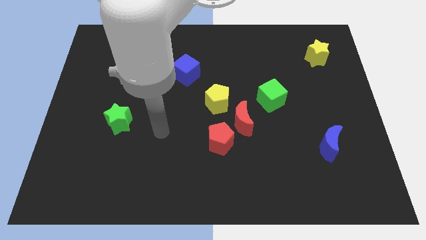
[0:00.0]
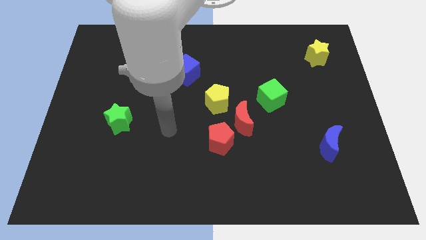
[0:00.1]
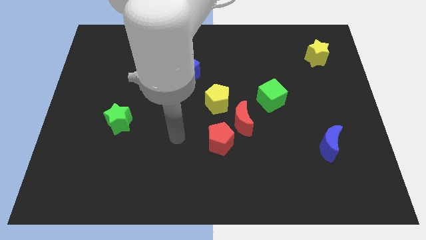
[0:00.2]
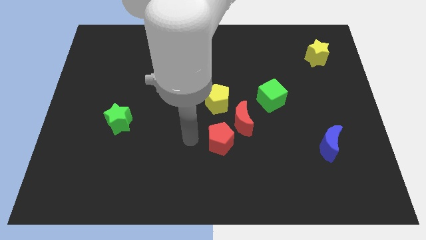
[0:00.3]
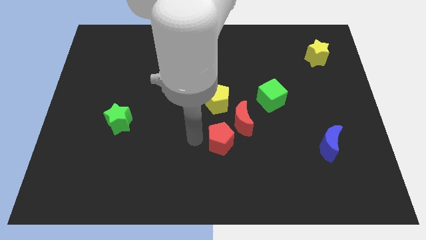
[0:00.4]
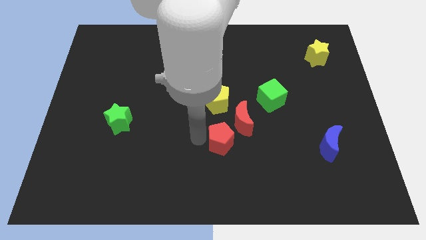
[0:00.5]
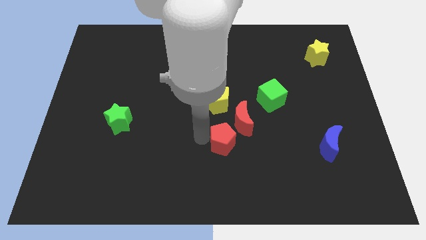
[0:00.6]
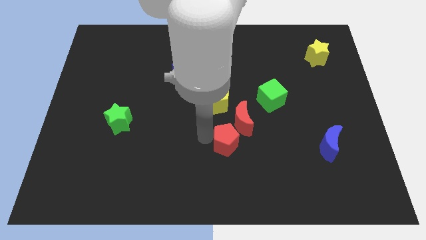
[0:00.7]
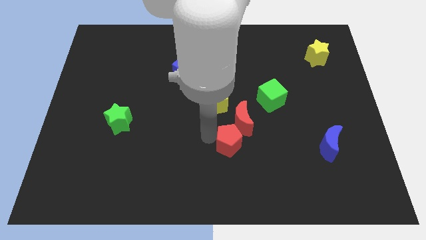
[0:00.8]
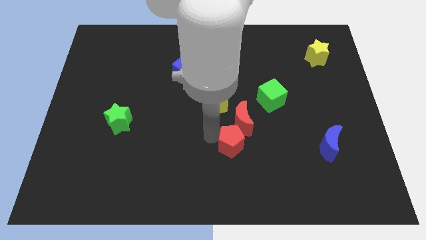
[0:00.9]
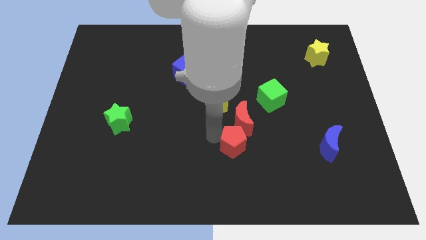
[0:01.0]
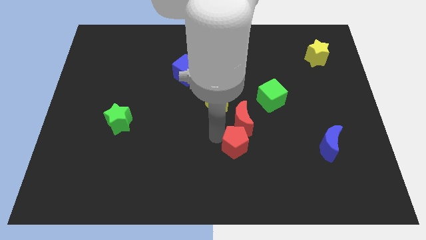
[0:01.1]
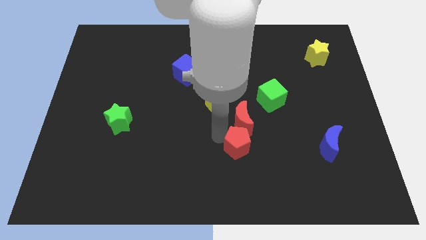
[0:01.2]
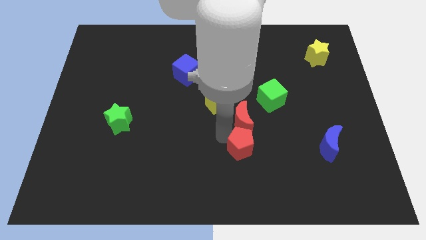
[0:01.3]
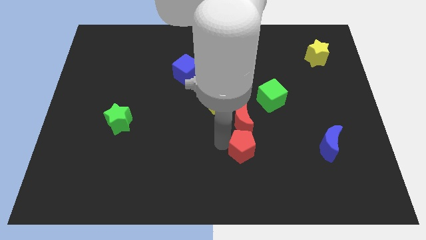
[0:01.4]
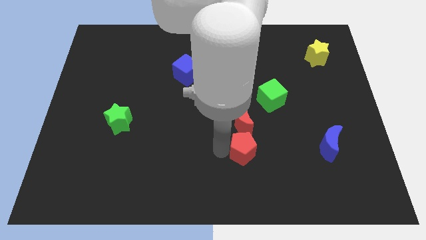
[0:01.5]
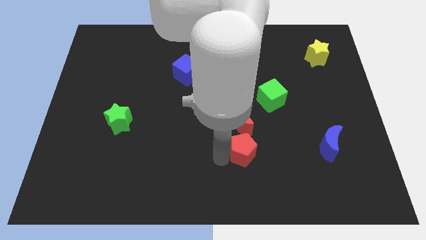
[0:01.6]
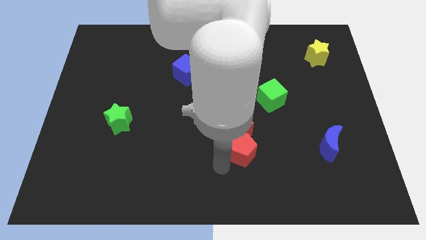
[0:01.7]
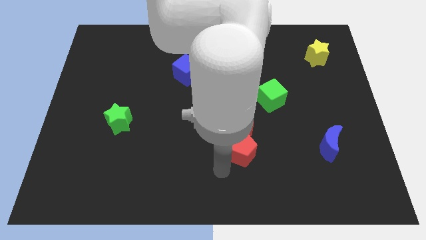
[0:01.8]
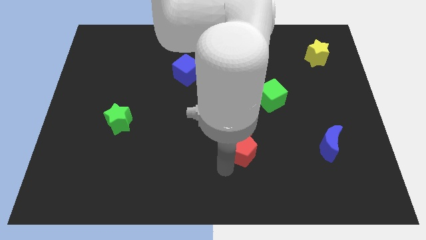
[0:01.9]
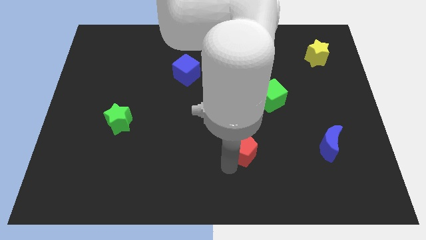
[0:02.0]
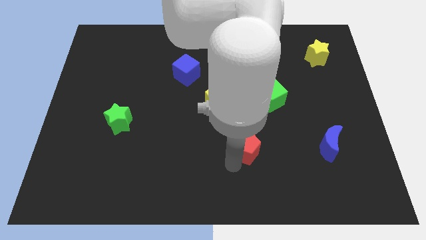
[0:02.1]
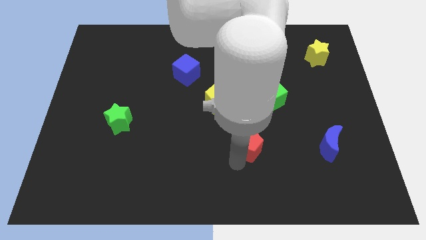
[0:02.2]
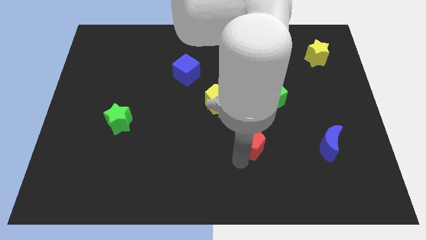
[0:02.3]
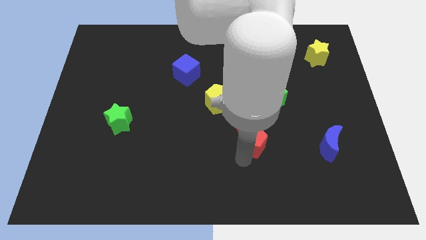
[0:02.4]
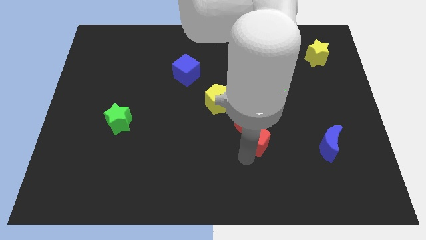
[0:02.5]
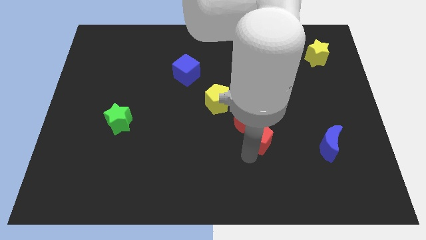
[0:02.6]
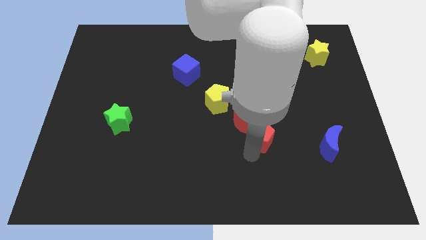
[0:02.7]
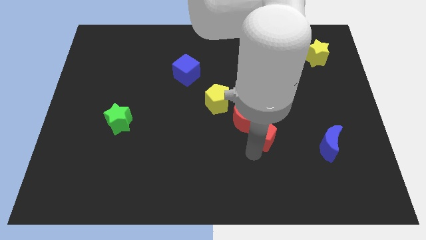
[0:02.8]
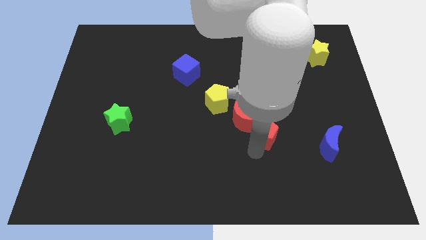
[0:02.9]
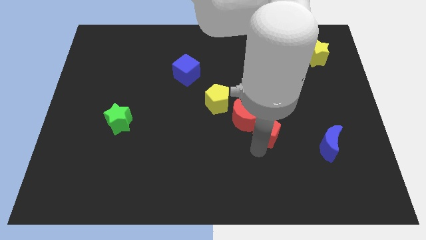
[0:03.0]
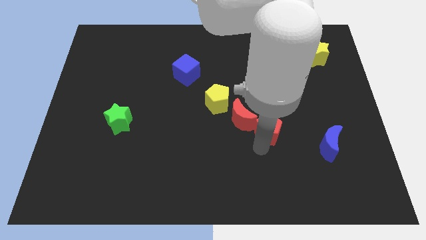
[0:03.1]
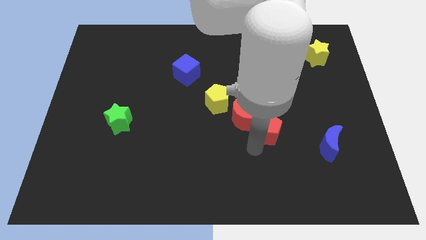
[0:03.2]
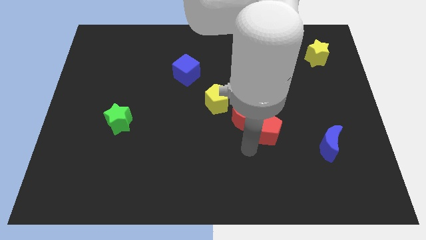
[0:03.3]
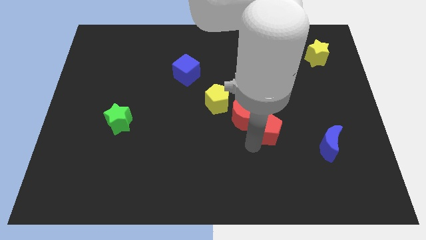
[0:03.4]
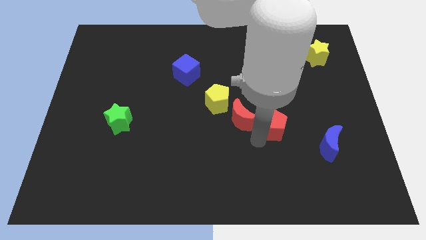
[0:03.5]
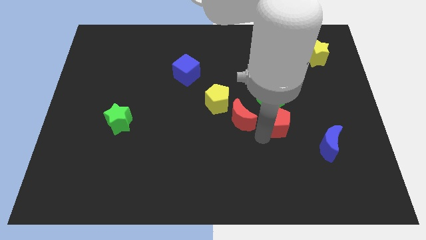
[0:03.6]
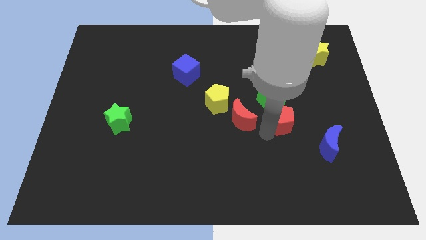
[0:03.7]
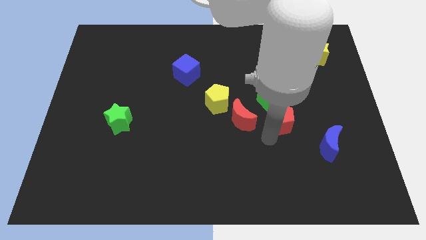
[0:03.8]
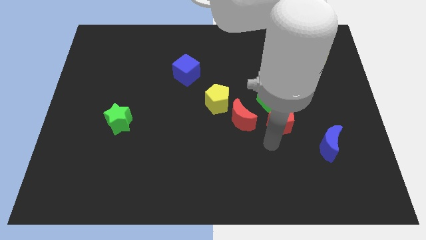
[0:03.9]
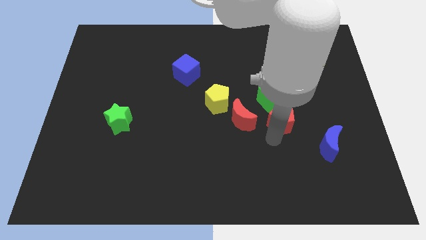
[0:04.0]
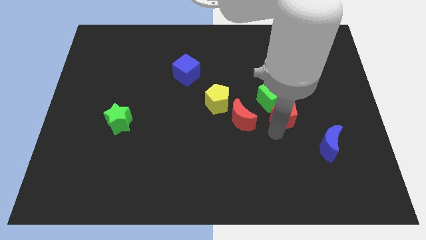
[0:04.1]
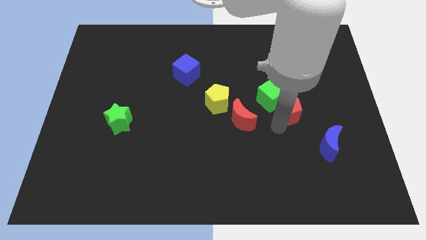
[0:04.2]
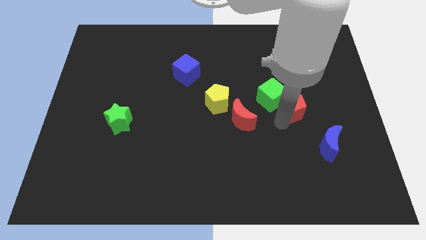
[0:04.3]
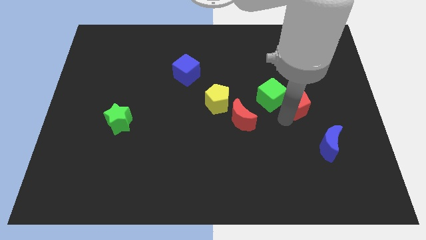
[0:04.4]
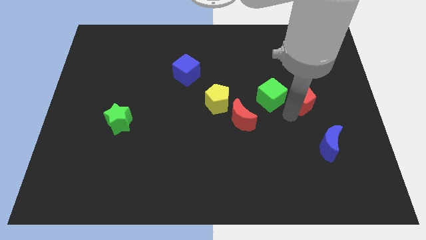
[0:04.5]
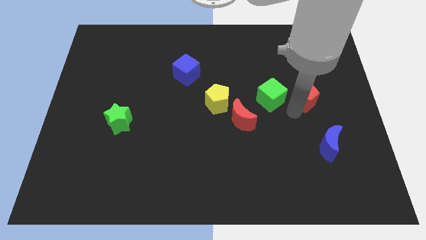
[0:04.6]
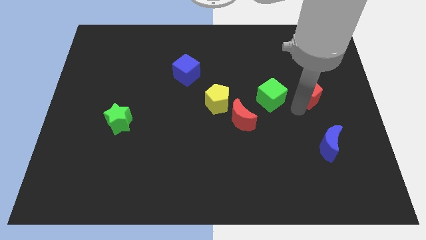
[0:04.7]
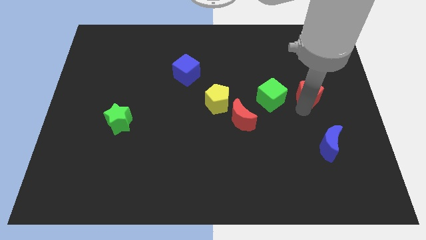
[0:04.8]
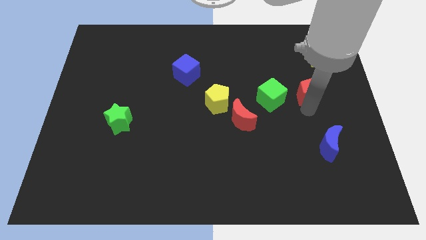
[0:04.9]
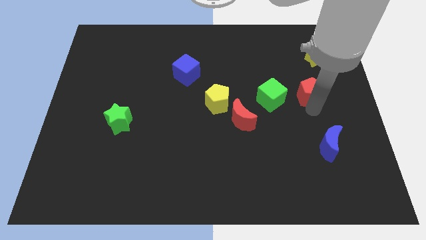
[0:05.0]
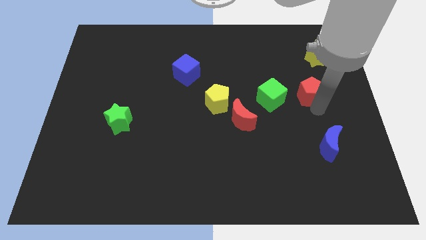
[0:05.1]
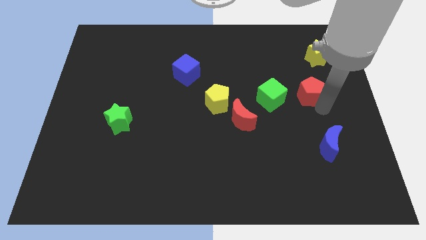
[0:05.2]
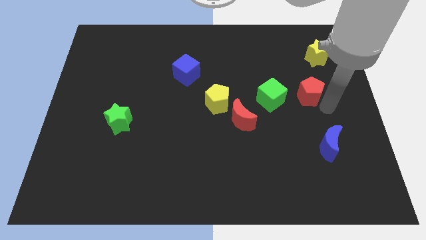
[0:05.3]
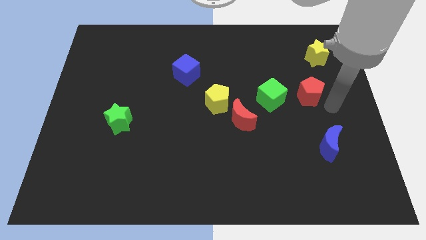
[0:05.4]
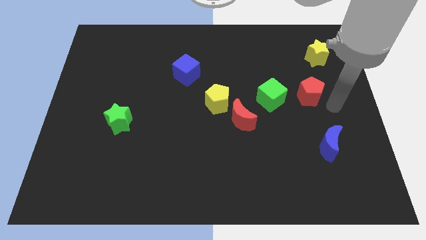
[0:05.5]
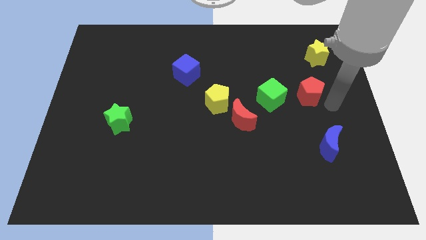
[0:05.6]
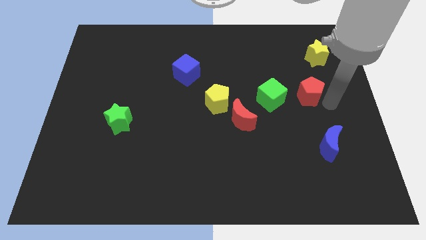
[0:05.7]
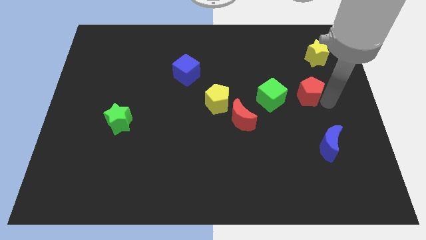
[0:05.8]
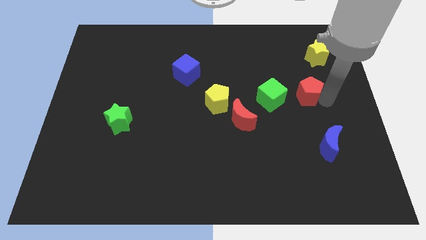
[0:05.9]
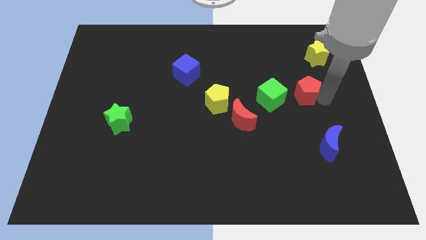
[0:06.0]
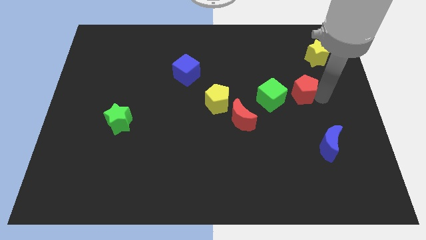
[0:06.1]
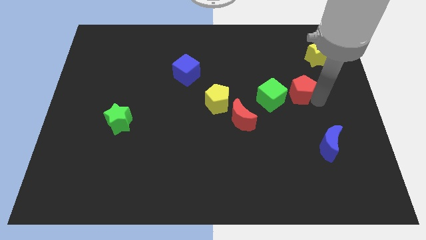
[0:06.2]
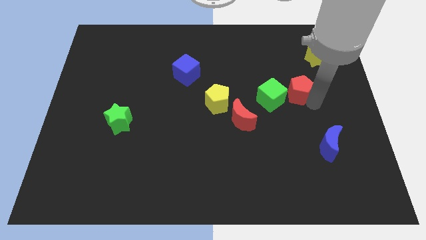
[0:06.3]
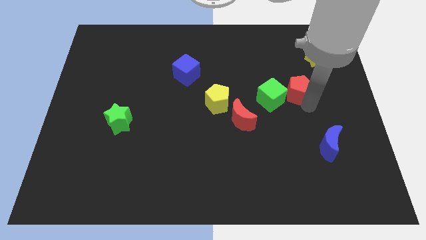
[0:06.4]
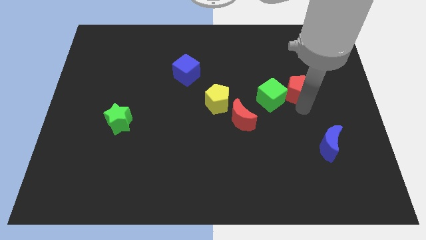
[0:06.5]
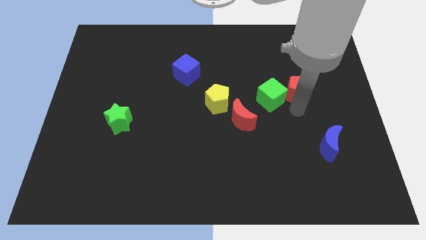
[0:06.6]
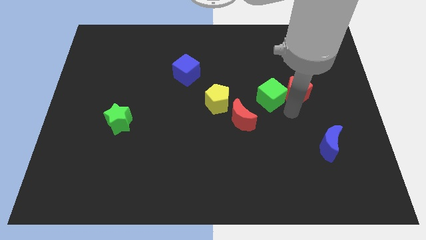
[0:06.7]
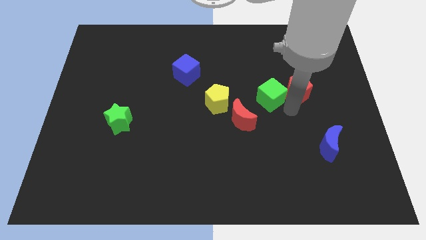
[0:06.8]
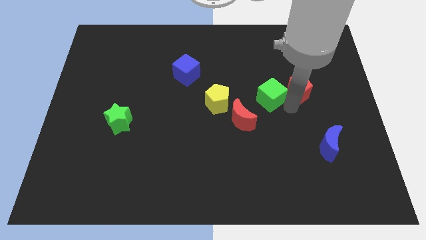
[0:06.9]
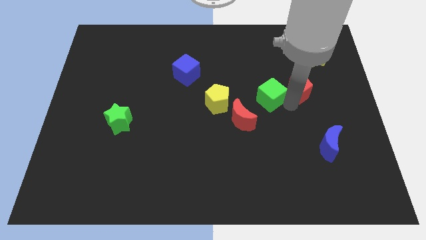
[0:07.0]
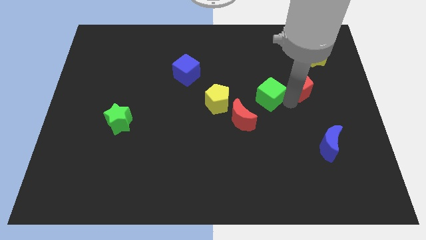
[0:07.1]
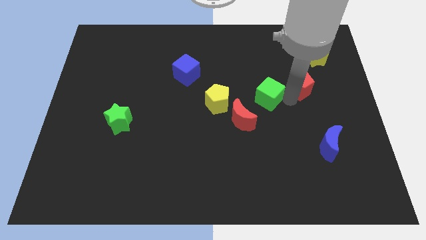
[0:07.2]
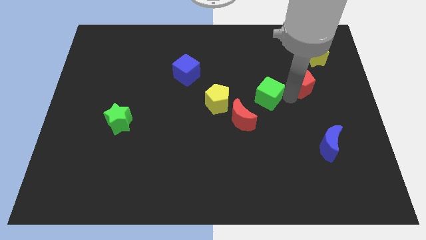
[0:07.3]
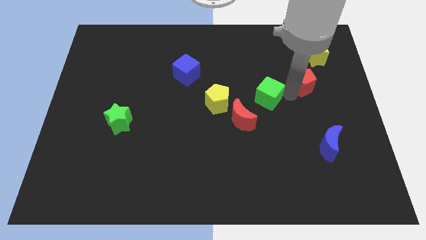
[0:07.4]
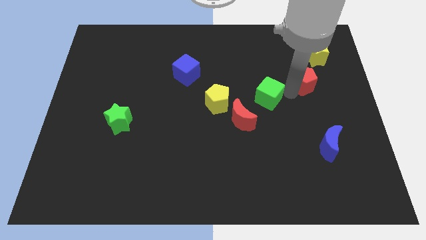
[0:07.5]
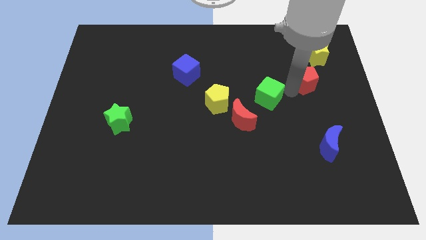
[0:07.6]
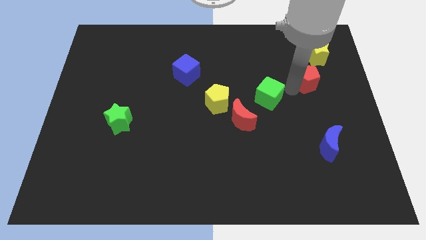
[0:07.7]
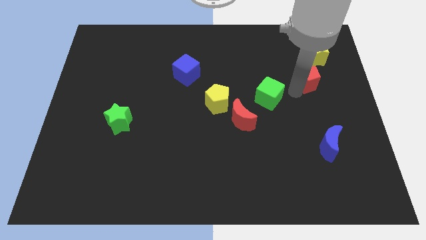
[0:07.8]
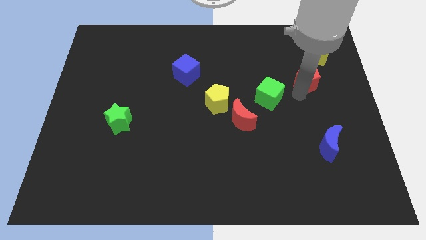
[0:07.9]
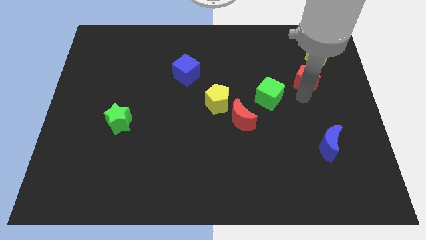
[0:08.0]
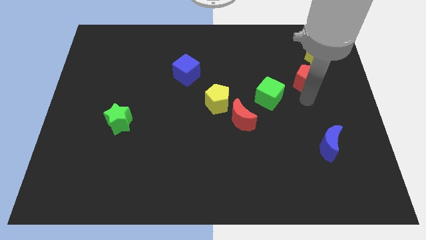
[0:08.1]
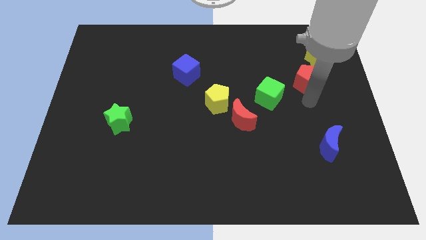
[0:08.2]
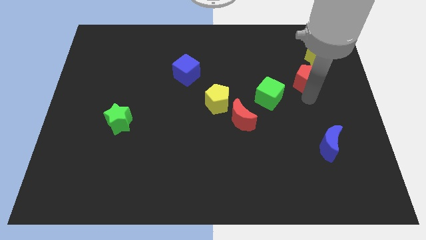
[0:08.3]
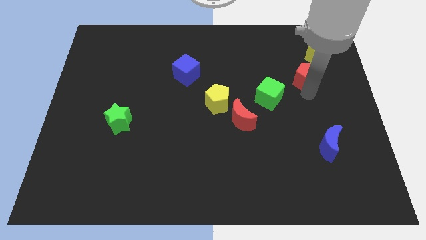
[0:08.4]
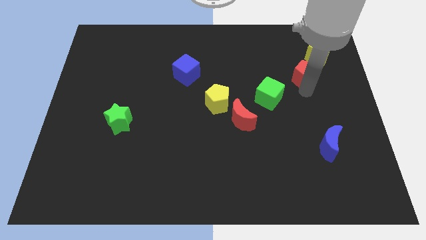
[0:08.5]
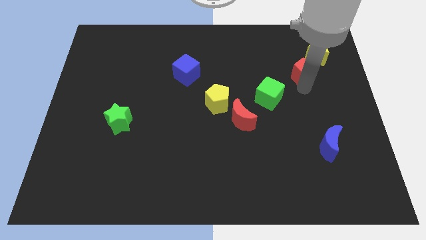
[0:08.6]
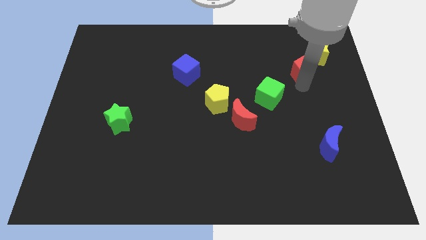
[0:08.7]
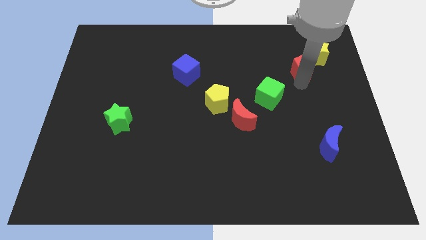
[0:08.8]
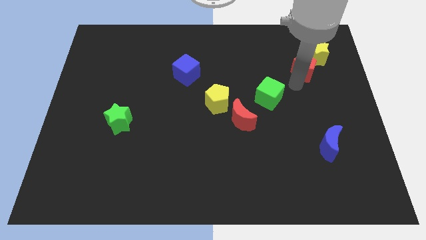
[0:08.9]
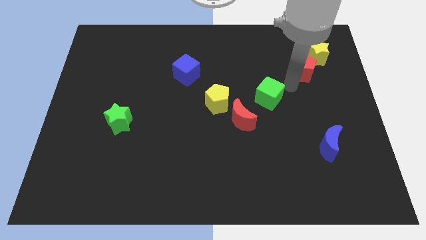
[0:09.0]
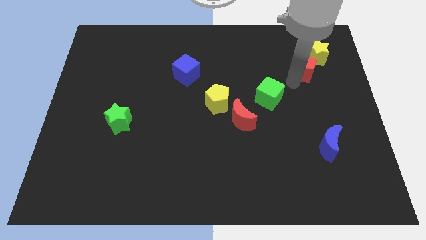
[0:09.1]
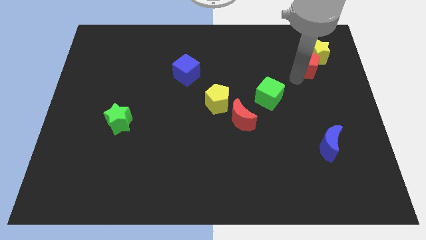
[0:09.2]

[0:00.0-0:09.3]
slide the red pentagon close to the yellow star
